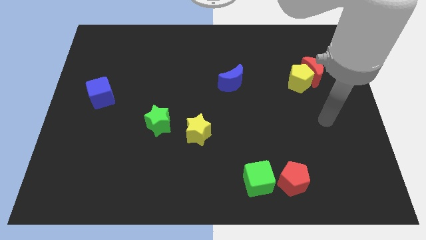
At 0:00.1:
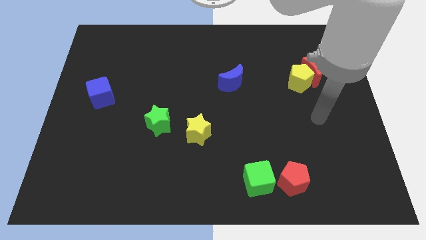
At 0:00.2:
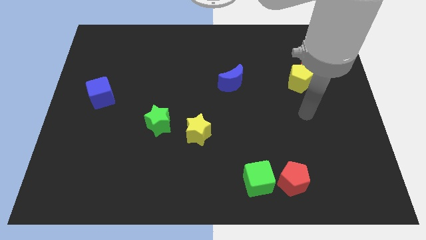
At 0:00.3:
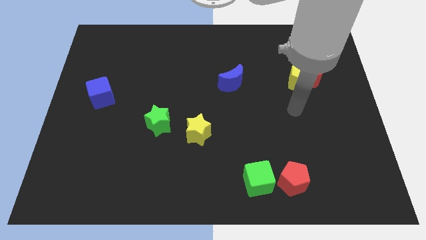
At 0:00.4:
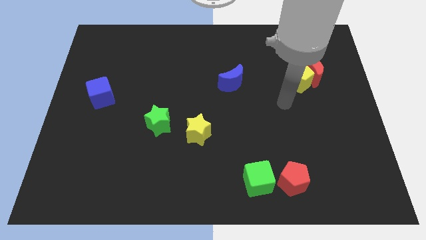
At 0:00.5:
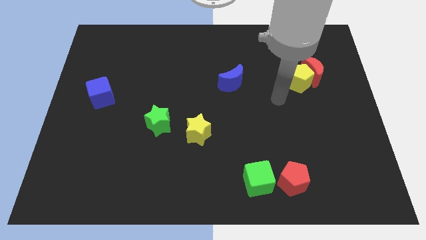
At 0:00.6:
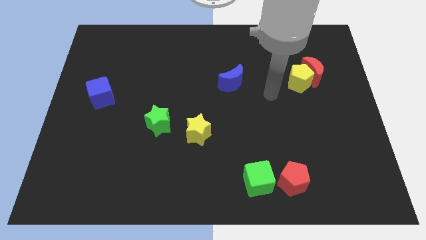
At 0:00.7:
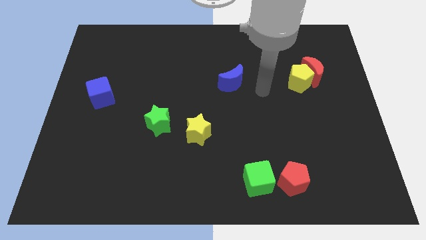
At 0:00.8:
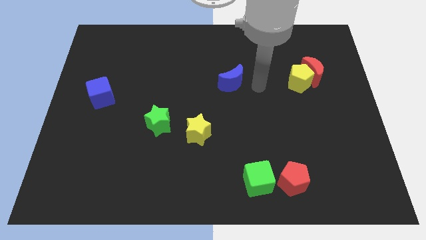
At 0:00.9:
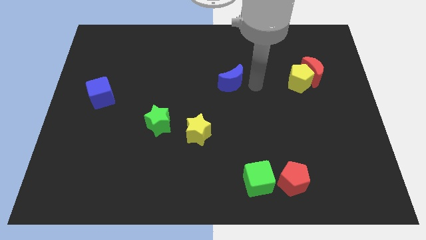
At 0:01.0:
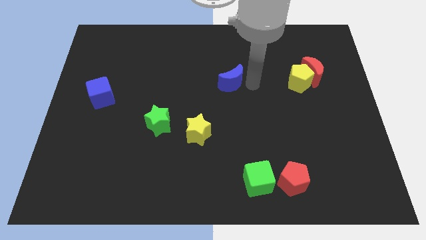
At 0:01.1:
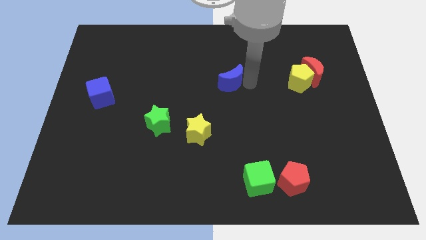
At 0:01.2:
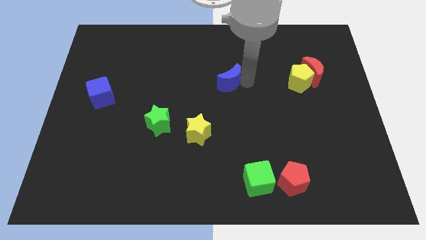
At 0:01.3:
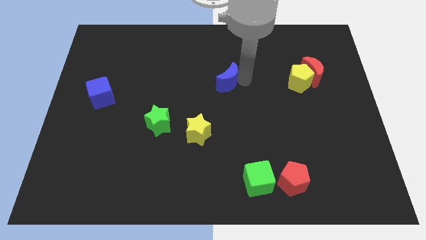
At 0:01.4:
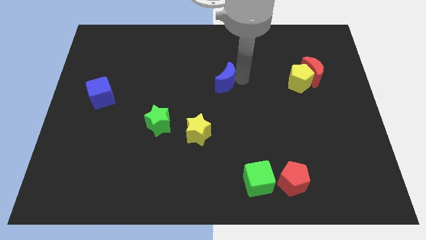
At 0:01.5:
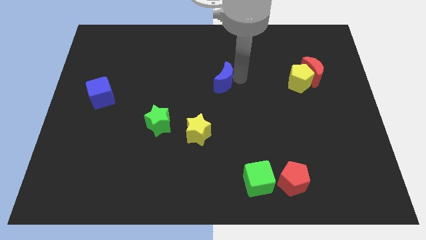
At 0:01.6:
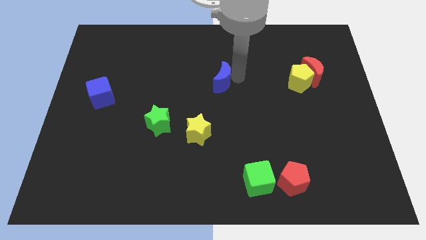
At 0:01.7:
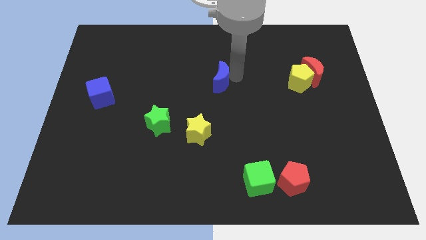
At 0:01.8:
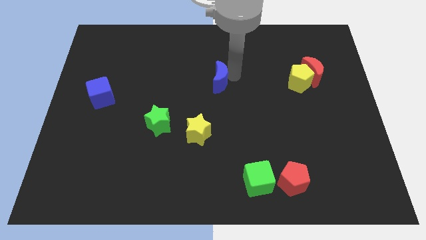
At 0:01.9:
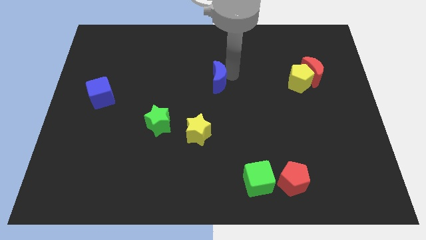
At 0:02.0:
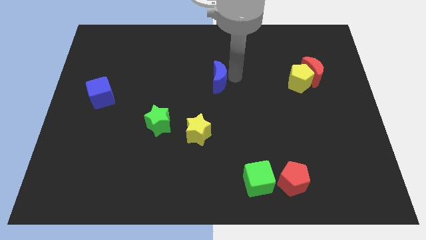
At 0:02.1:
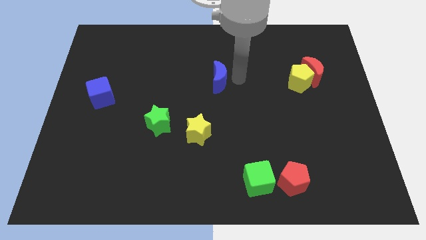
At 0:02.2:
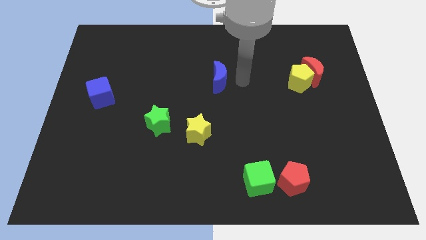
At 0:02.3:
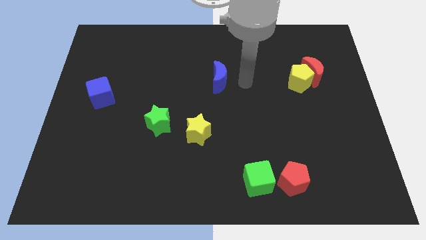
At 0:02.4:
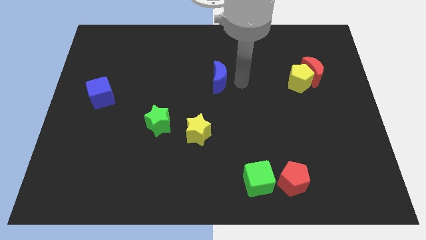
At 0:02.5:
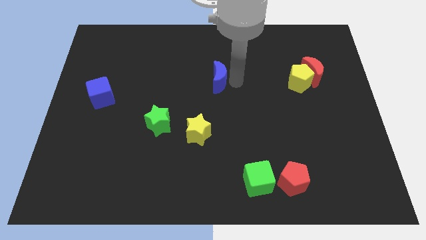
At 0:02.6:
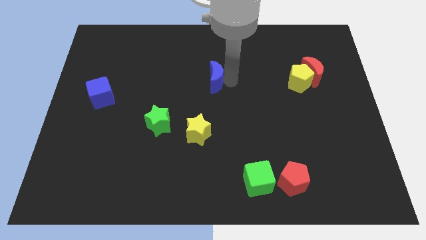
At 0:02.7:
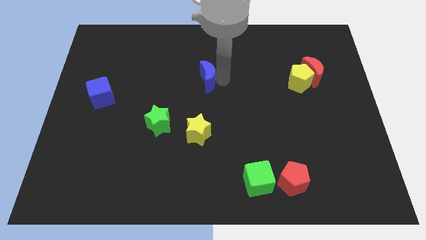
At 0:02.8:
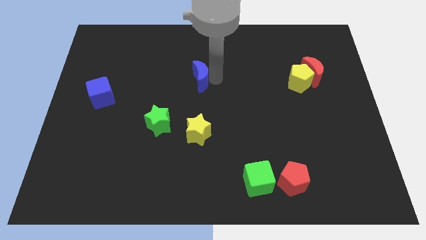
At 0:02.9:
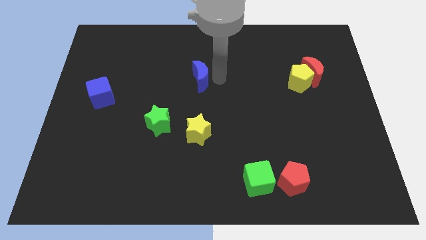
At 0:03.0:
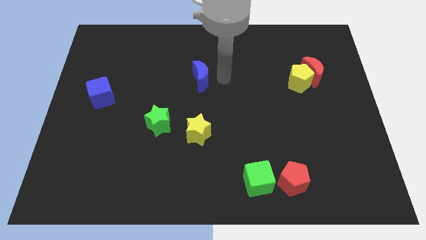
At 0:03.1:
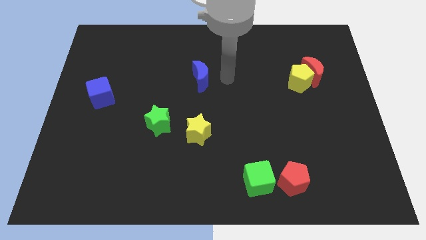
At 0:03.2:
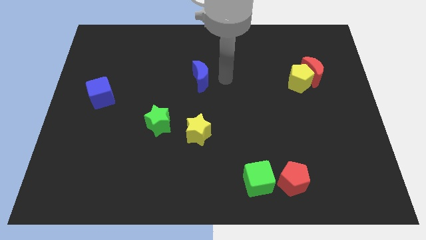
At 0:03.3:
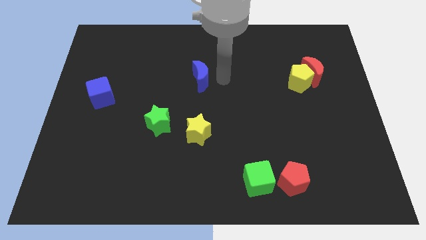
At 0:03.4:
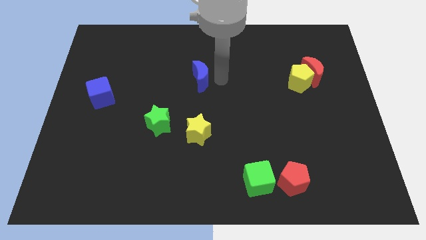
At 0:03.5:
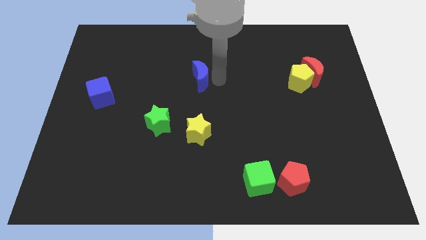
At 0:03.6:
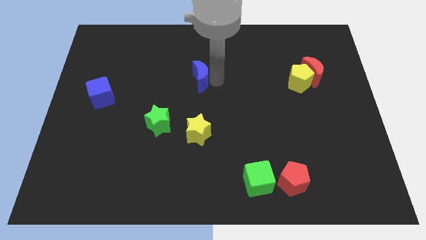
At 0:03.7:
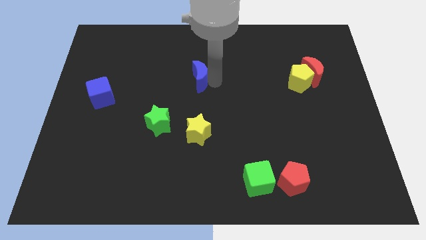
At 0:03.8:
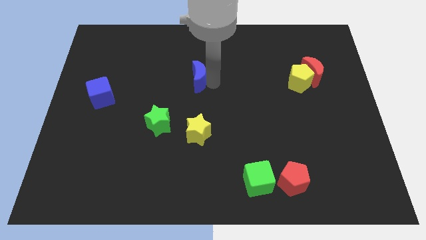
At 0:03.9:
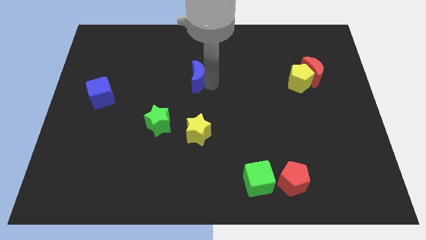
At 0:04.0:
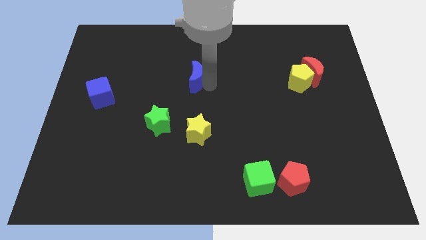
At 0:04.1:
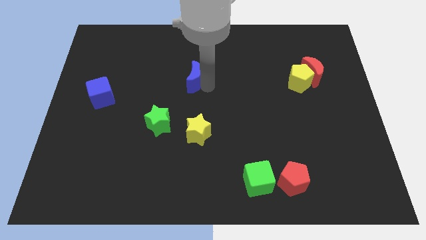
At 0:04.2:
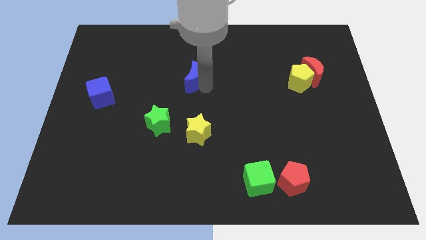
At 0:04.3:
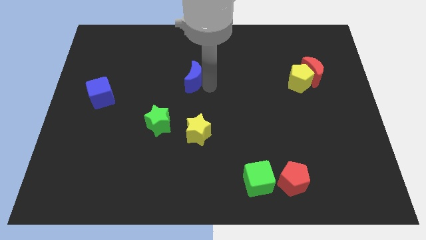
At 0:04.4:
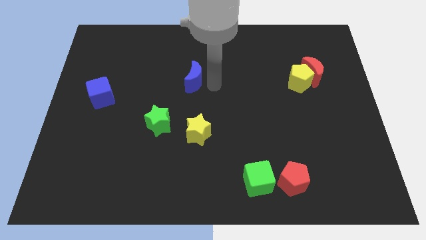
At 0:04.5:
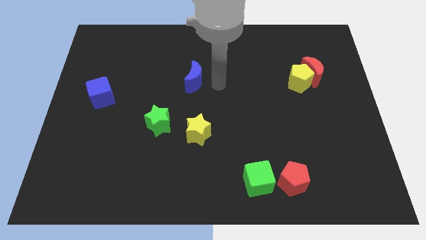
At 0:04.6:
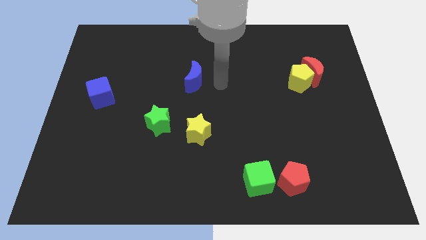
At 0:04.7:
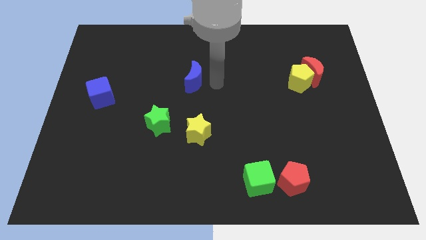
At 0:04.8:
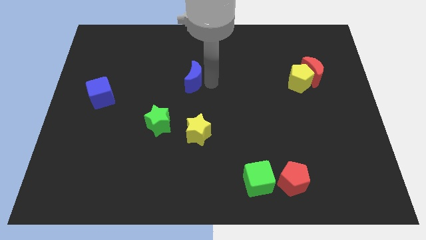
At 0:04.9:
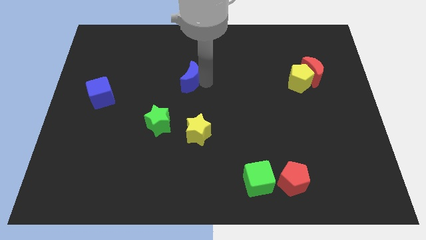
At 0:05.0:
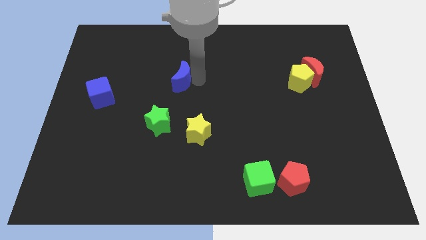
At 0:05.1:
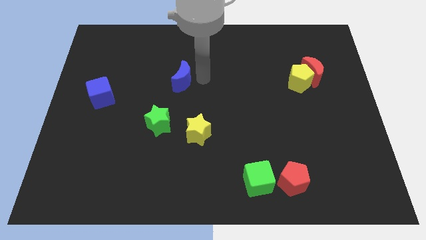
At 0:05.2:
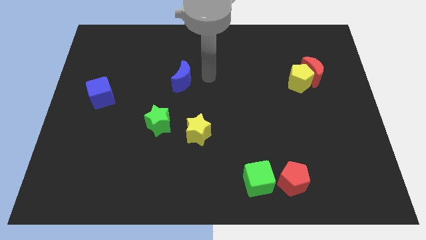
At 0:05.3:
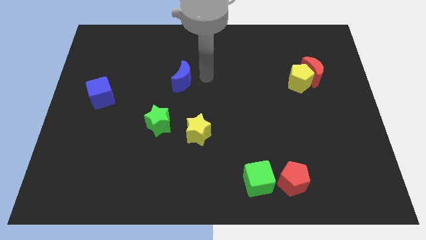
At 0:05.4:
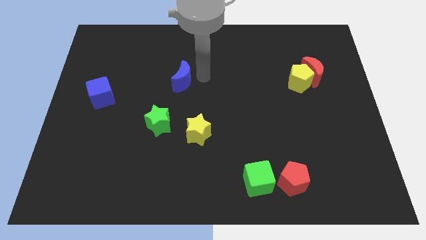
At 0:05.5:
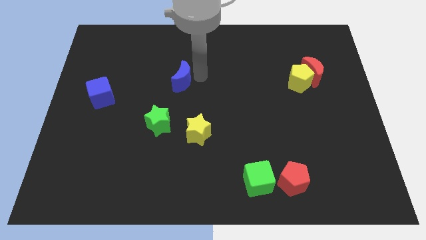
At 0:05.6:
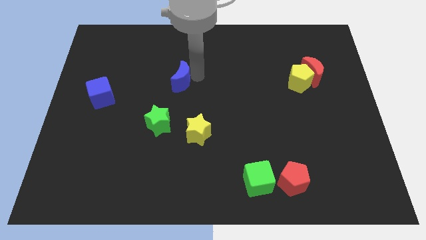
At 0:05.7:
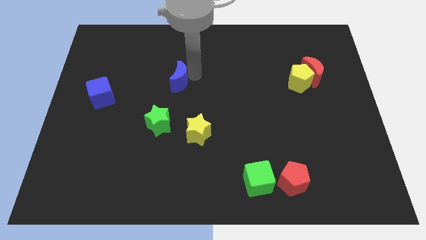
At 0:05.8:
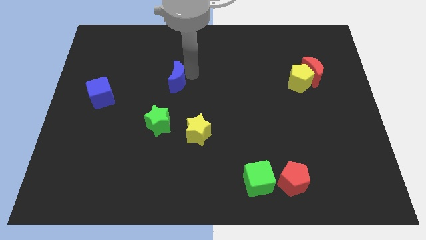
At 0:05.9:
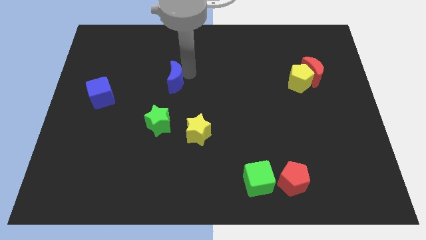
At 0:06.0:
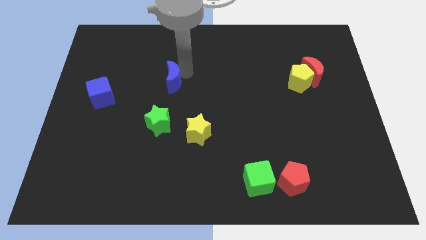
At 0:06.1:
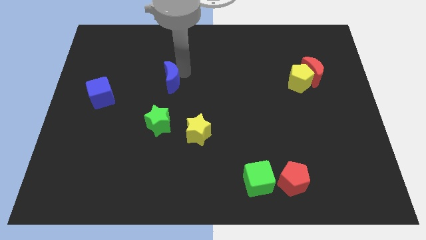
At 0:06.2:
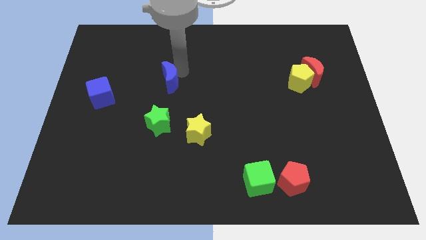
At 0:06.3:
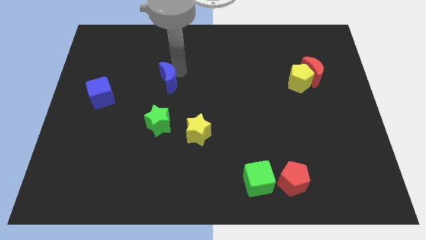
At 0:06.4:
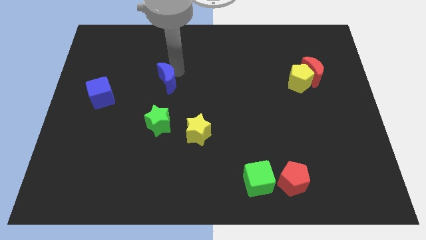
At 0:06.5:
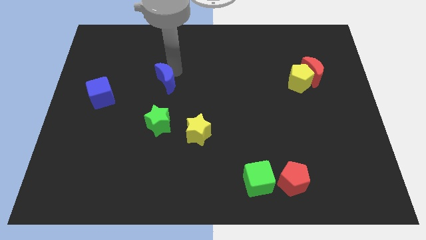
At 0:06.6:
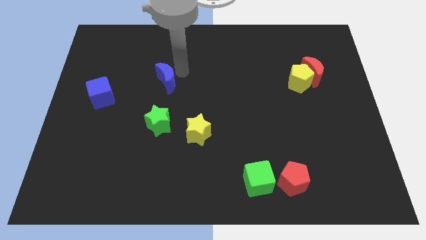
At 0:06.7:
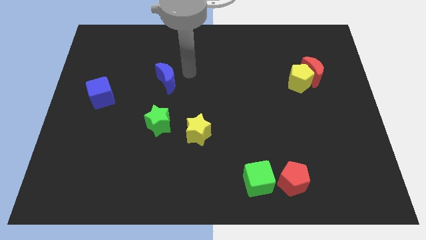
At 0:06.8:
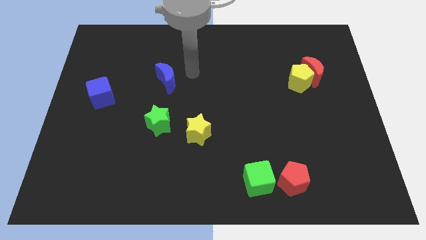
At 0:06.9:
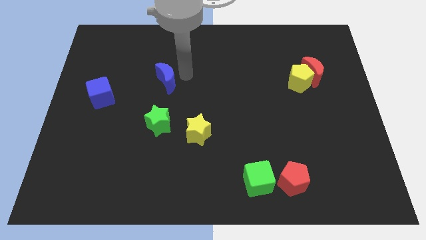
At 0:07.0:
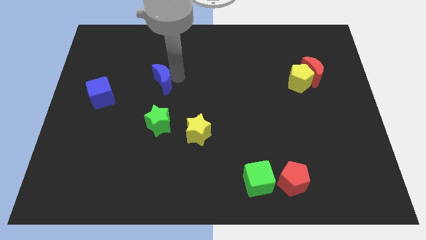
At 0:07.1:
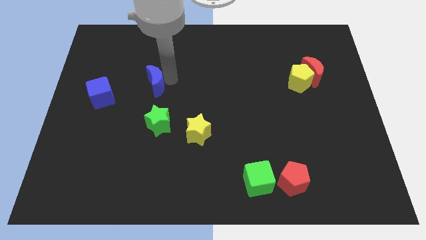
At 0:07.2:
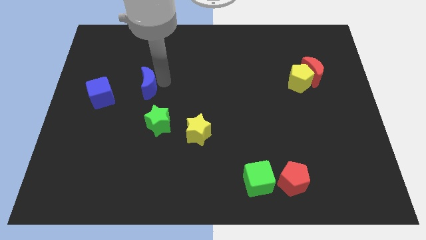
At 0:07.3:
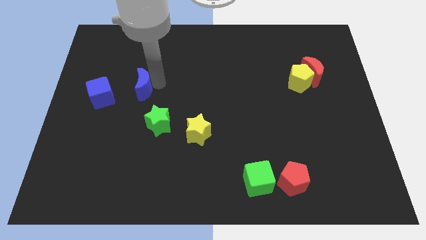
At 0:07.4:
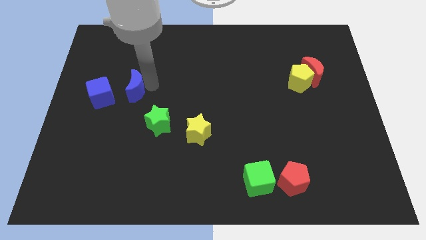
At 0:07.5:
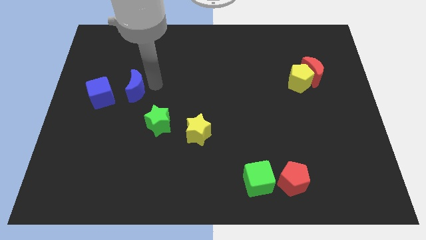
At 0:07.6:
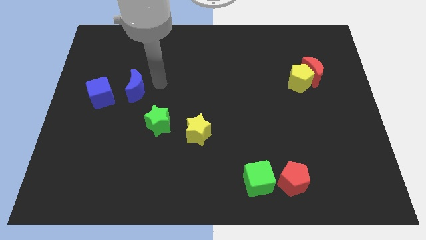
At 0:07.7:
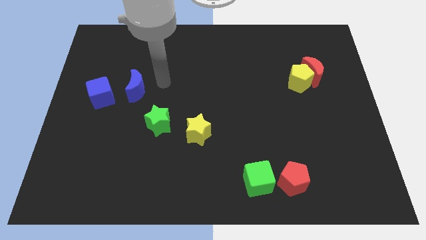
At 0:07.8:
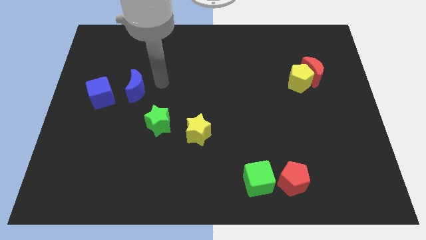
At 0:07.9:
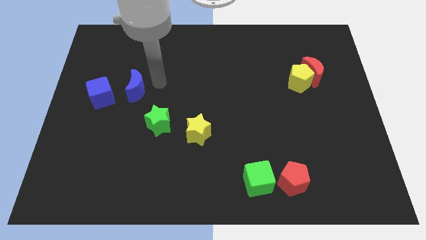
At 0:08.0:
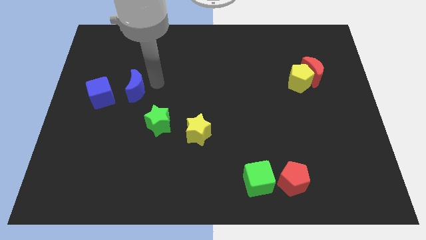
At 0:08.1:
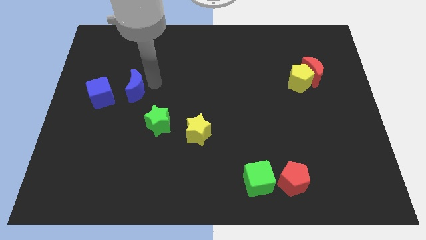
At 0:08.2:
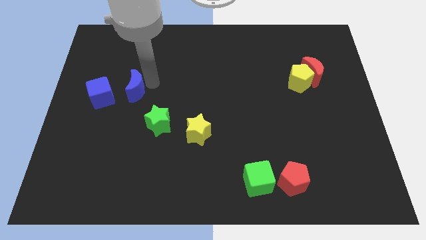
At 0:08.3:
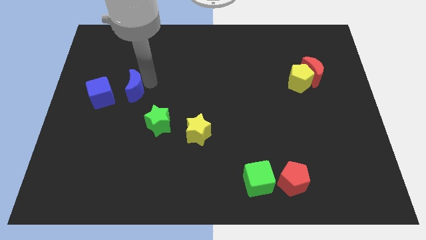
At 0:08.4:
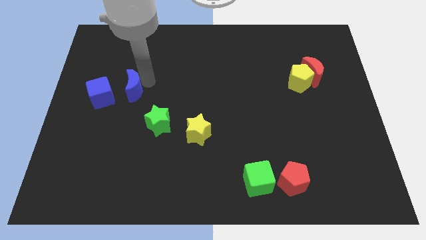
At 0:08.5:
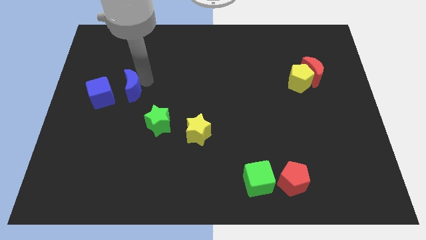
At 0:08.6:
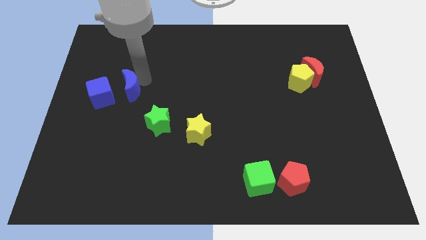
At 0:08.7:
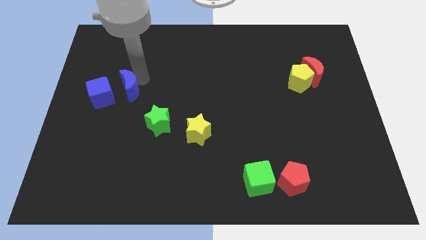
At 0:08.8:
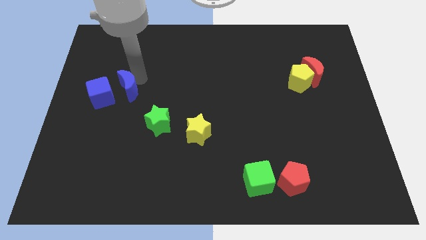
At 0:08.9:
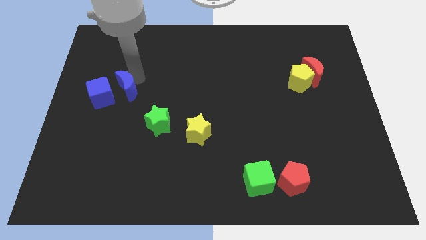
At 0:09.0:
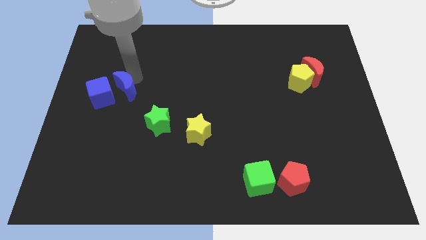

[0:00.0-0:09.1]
slide the blue moon to the blue cube
